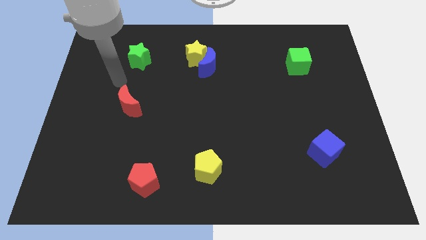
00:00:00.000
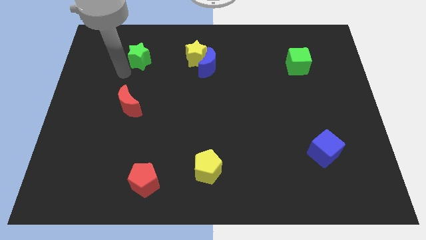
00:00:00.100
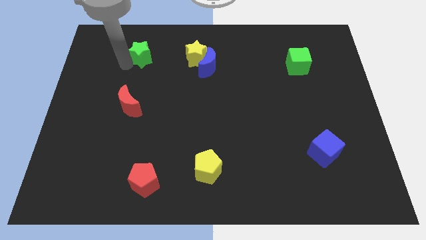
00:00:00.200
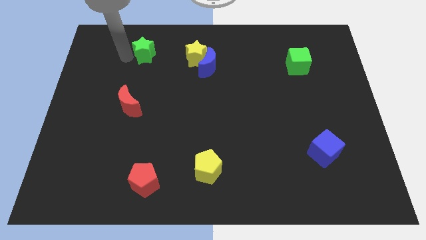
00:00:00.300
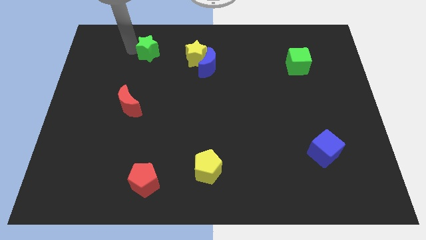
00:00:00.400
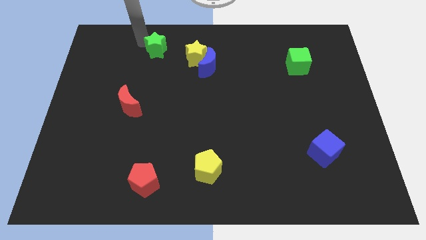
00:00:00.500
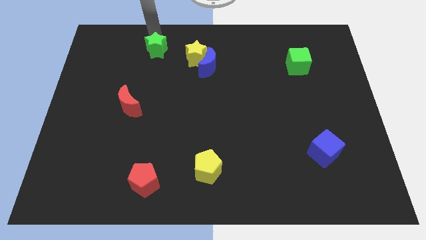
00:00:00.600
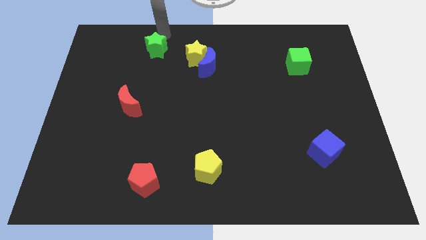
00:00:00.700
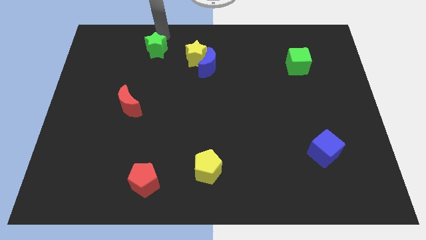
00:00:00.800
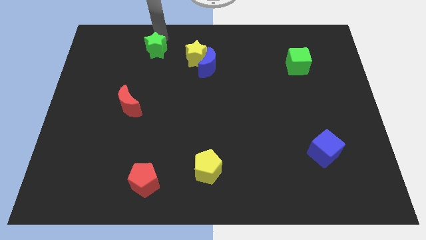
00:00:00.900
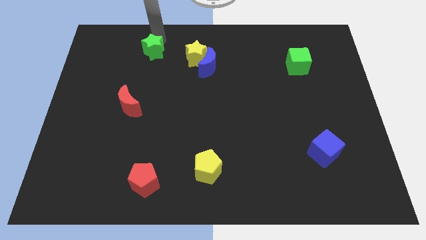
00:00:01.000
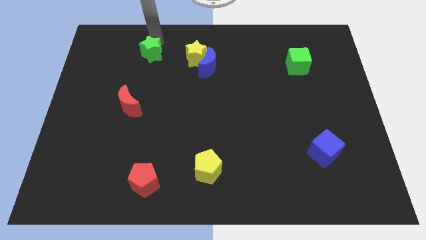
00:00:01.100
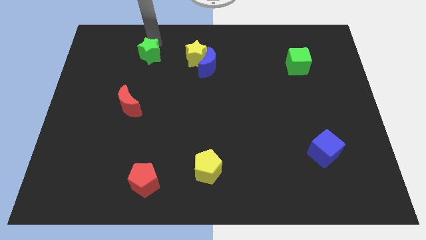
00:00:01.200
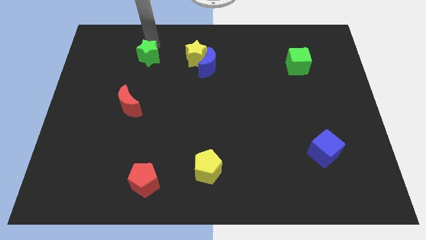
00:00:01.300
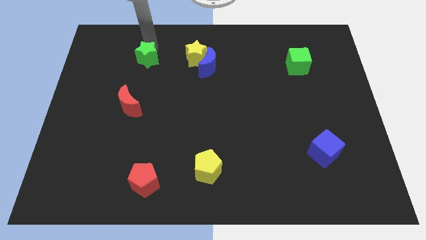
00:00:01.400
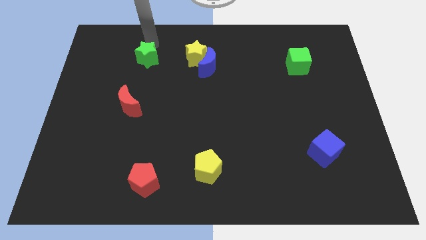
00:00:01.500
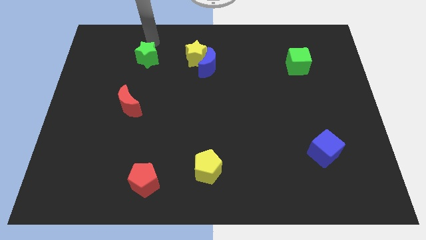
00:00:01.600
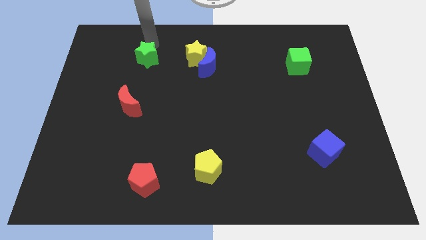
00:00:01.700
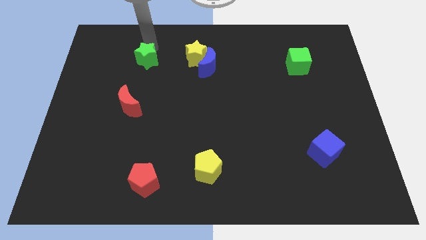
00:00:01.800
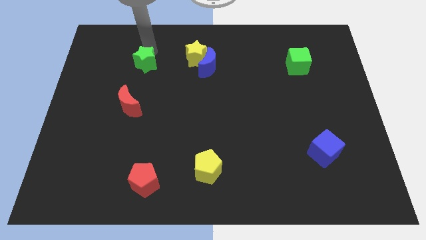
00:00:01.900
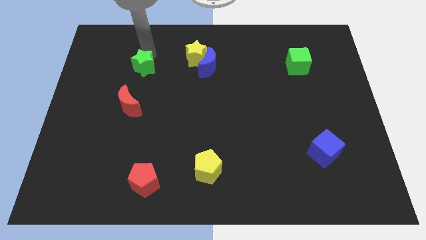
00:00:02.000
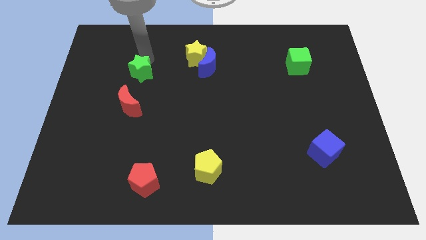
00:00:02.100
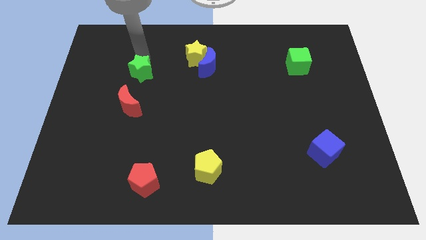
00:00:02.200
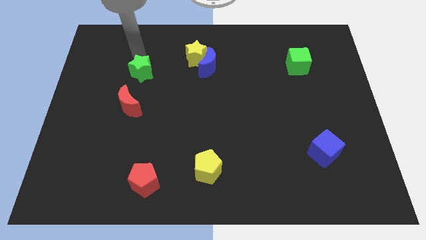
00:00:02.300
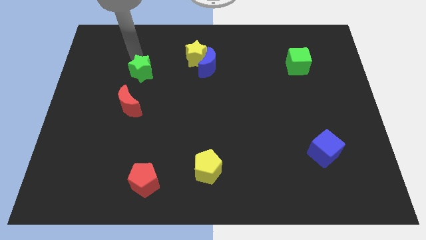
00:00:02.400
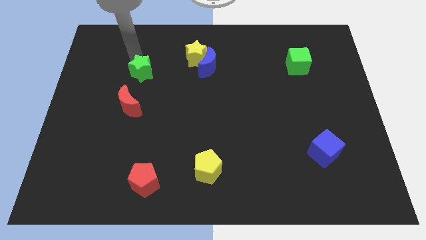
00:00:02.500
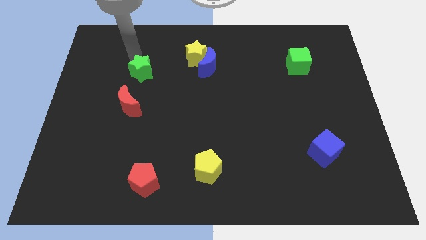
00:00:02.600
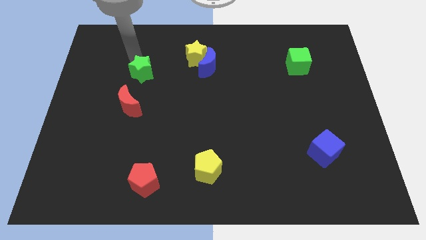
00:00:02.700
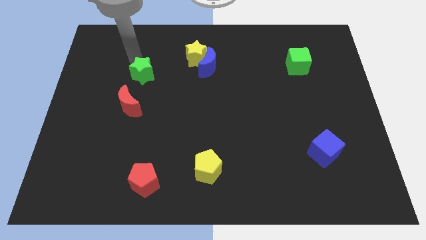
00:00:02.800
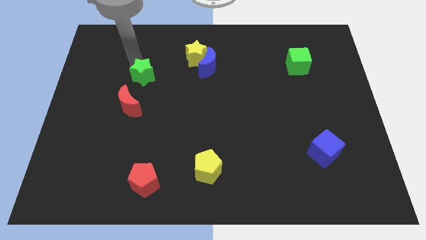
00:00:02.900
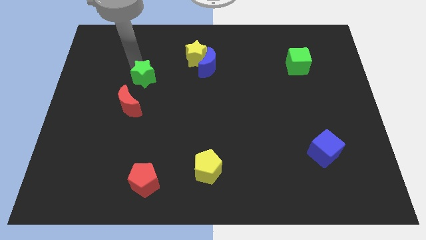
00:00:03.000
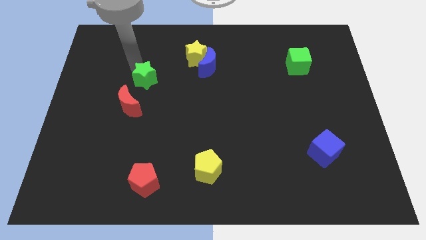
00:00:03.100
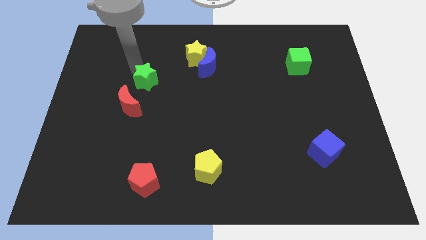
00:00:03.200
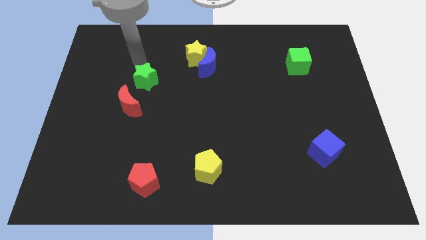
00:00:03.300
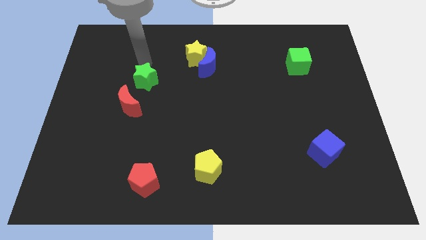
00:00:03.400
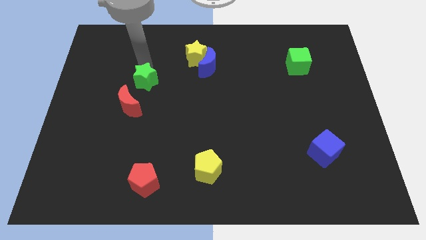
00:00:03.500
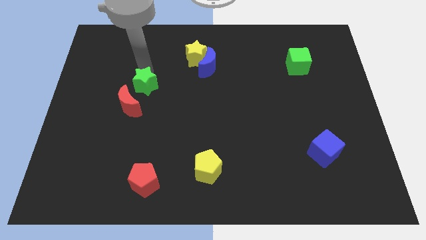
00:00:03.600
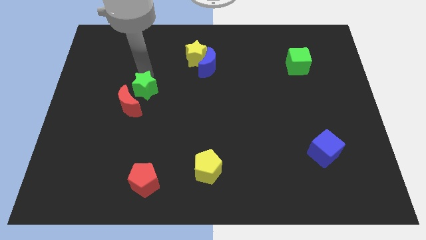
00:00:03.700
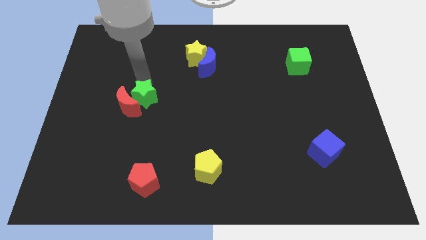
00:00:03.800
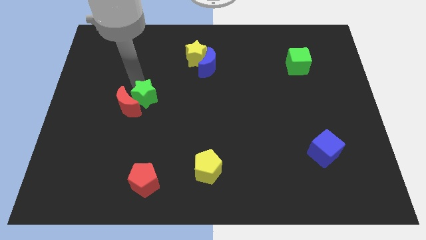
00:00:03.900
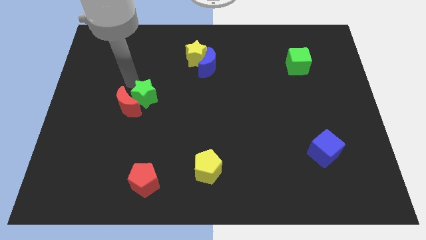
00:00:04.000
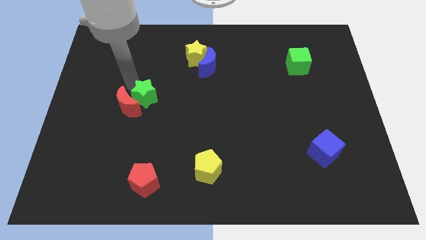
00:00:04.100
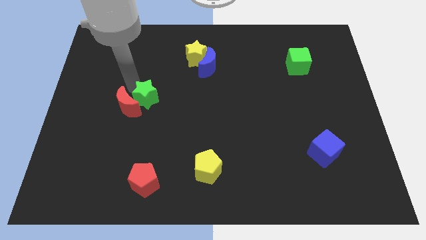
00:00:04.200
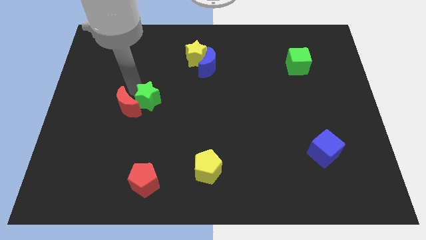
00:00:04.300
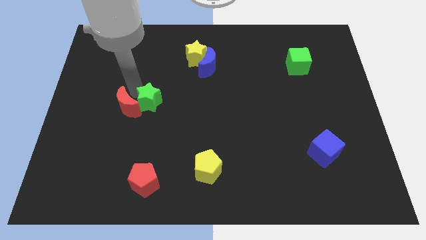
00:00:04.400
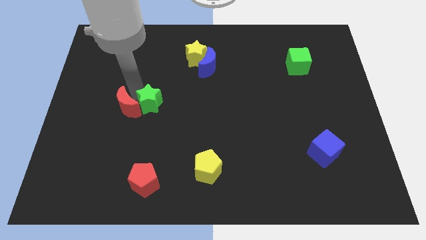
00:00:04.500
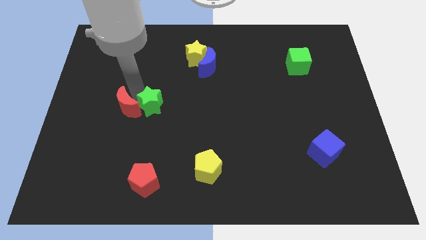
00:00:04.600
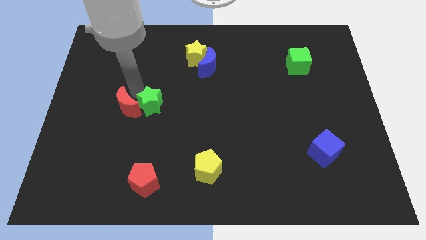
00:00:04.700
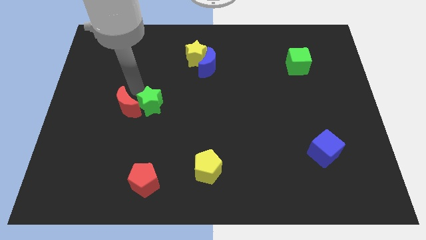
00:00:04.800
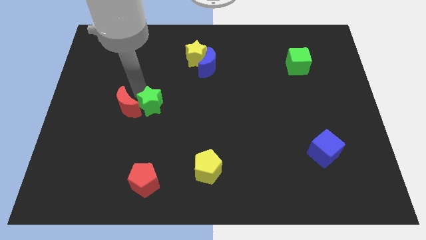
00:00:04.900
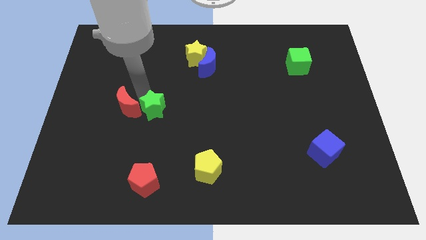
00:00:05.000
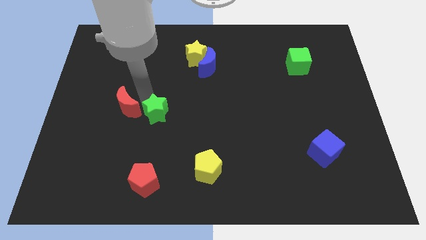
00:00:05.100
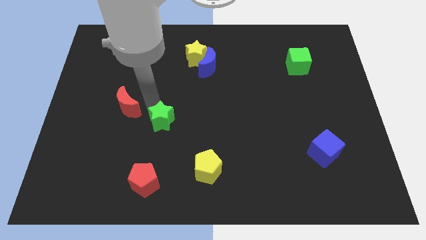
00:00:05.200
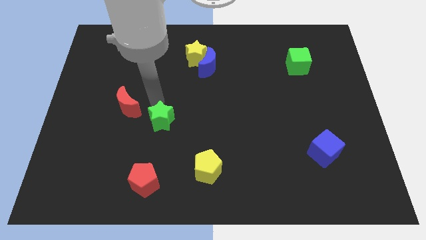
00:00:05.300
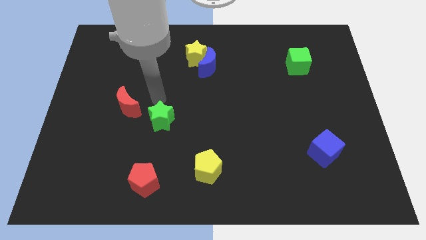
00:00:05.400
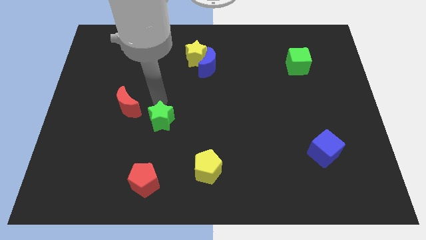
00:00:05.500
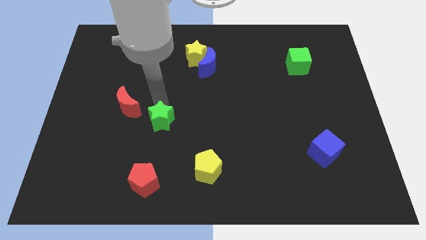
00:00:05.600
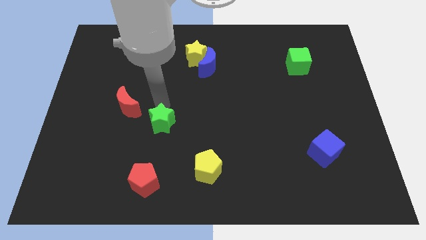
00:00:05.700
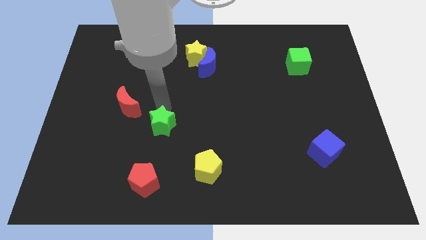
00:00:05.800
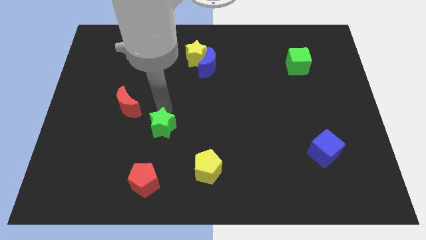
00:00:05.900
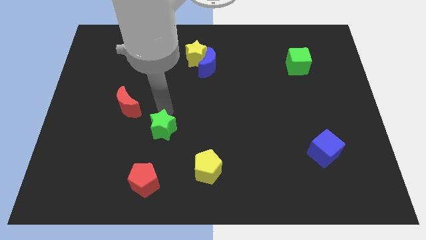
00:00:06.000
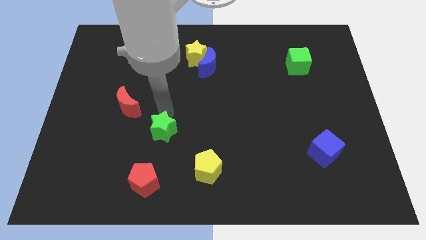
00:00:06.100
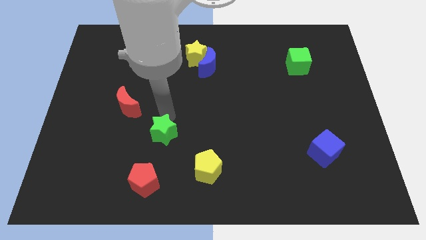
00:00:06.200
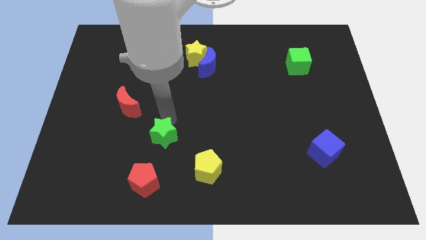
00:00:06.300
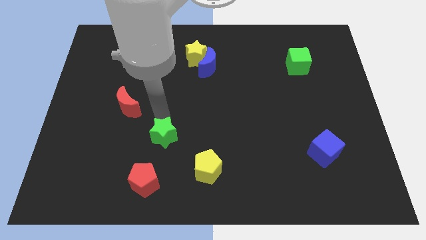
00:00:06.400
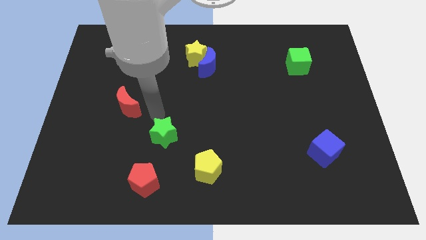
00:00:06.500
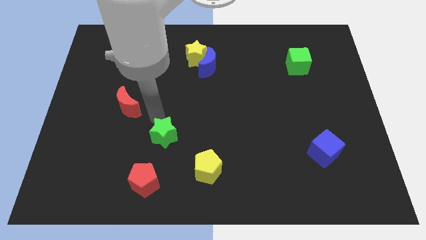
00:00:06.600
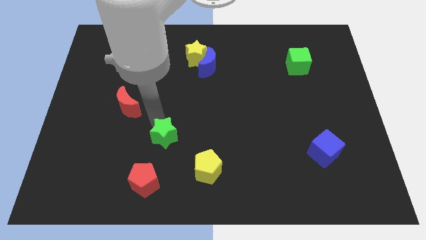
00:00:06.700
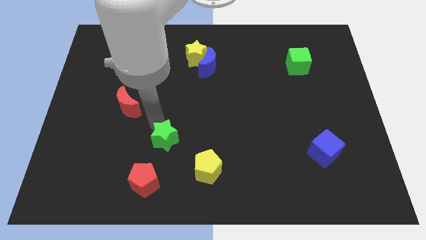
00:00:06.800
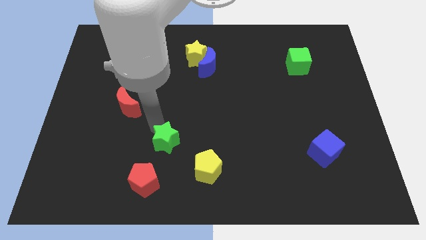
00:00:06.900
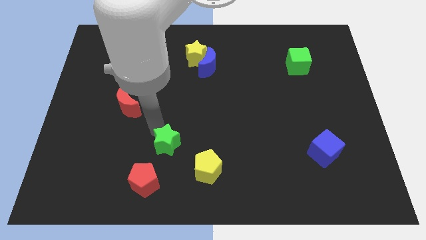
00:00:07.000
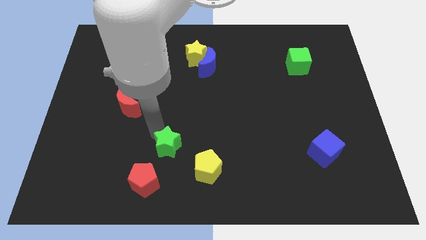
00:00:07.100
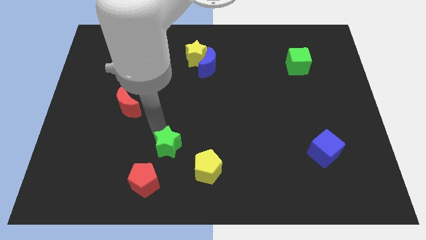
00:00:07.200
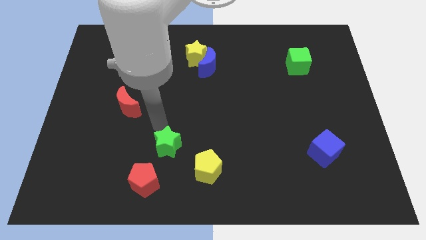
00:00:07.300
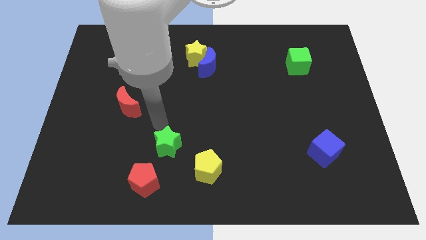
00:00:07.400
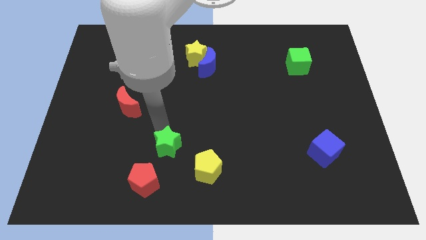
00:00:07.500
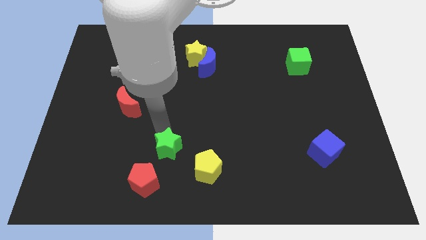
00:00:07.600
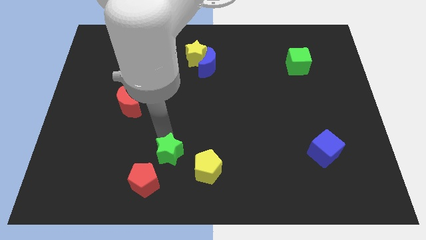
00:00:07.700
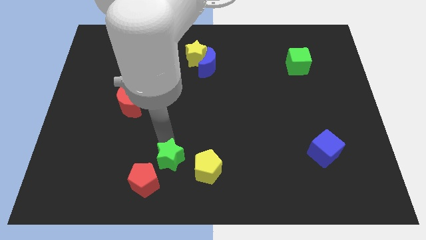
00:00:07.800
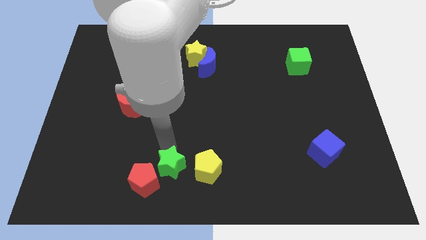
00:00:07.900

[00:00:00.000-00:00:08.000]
put the green star to the bottom side
